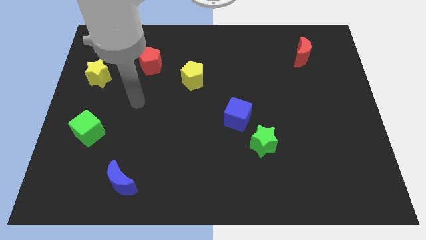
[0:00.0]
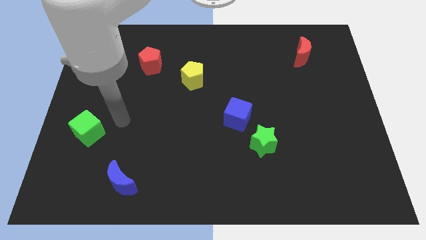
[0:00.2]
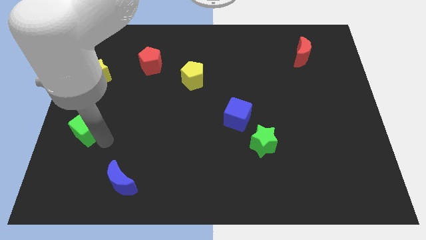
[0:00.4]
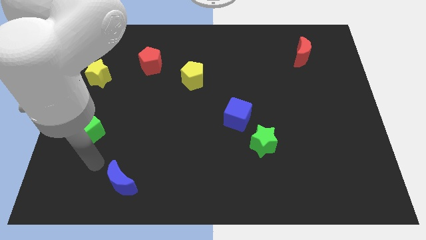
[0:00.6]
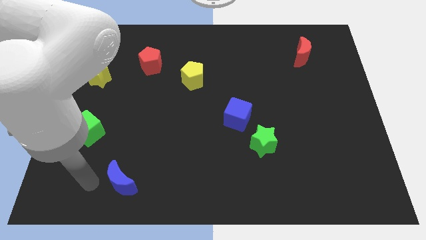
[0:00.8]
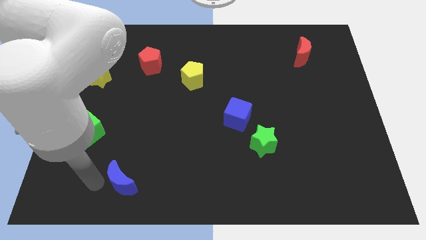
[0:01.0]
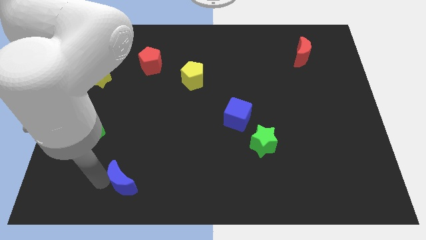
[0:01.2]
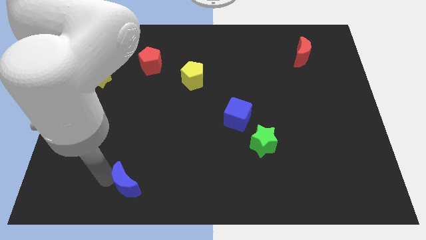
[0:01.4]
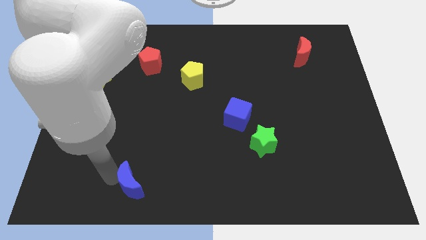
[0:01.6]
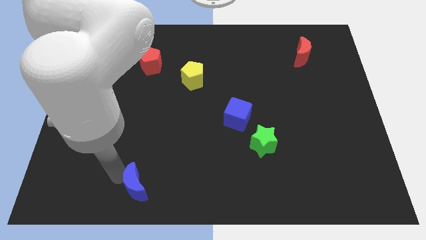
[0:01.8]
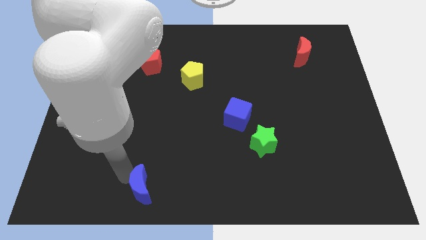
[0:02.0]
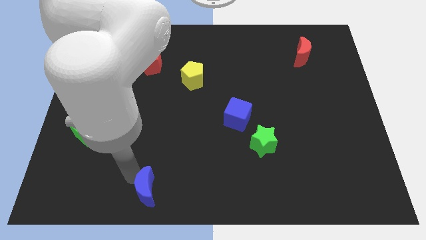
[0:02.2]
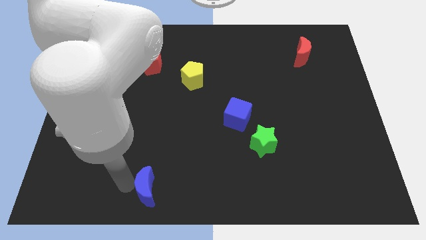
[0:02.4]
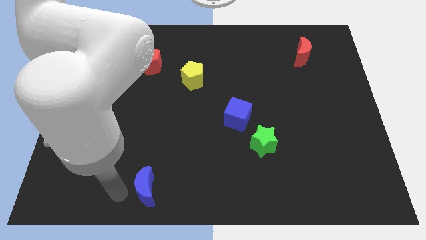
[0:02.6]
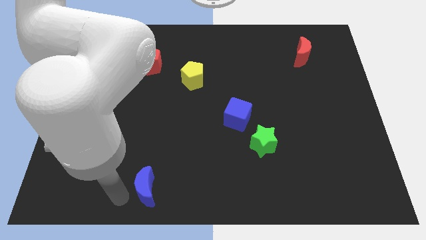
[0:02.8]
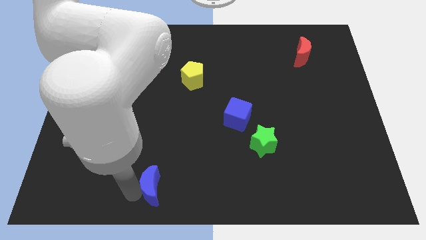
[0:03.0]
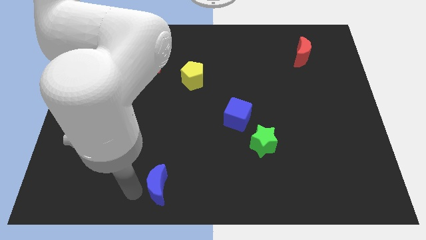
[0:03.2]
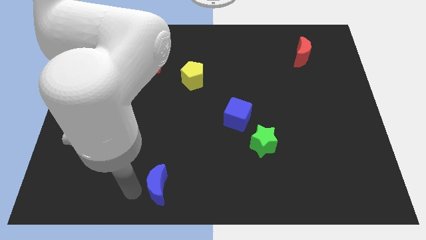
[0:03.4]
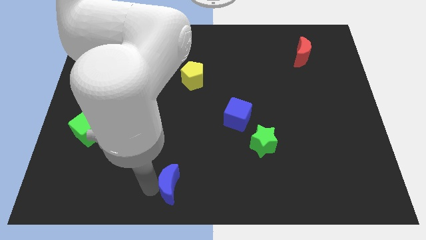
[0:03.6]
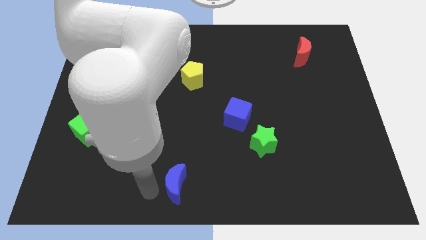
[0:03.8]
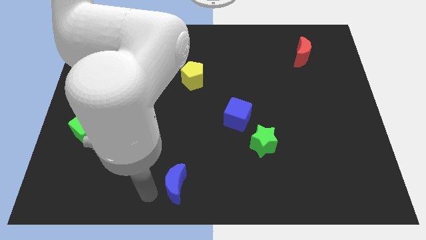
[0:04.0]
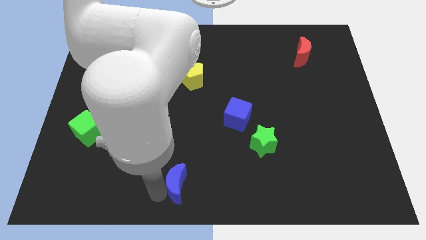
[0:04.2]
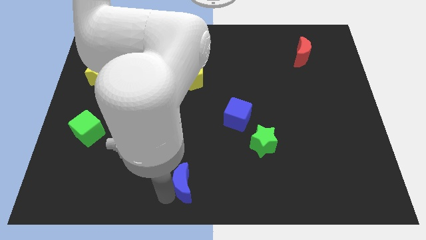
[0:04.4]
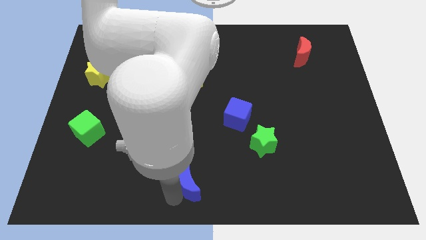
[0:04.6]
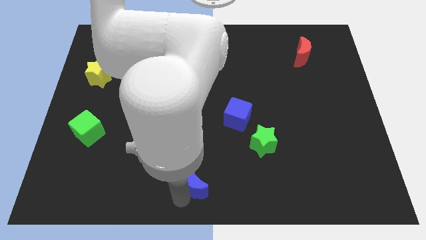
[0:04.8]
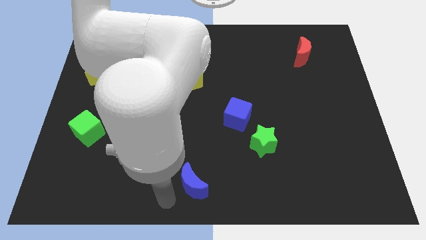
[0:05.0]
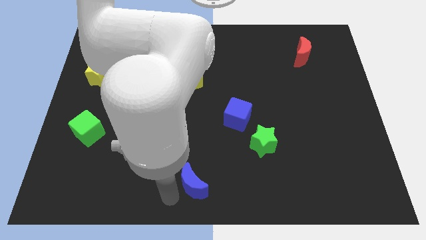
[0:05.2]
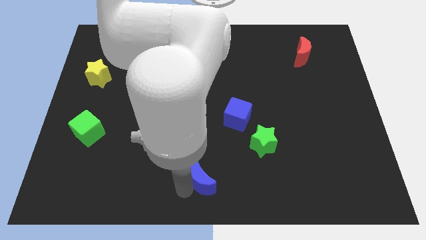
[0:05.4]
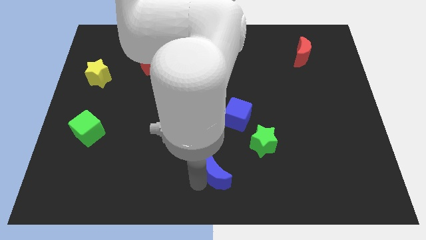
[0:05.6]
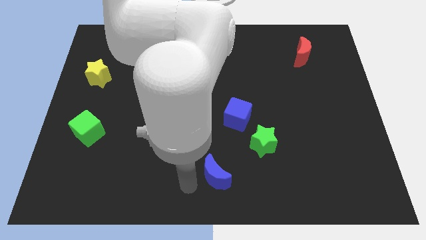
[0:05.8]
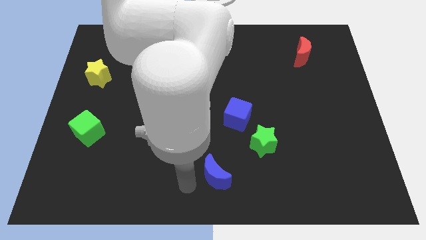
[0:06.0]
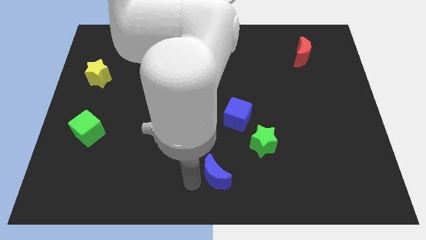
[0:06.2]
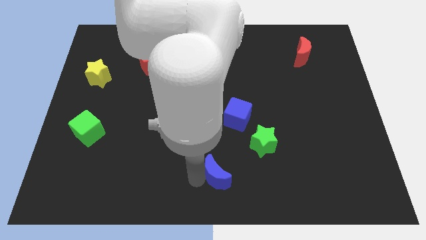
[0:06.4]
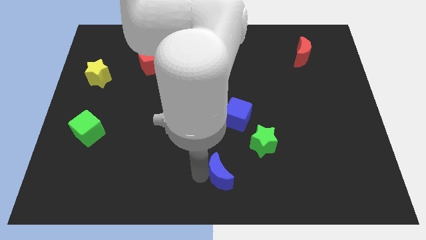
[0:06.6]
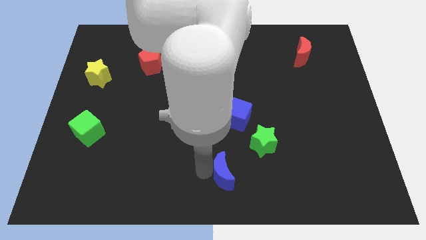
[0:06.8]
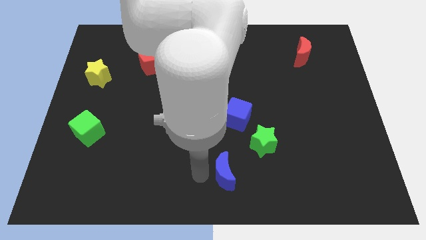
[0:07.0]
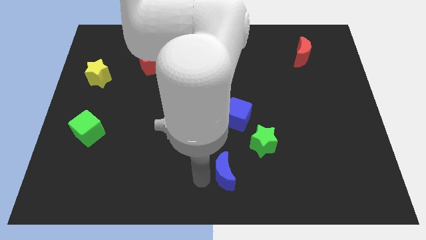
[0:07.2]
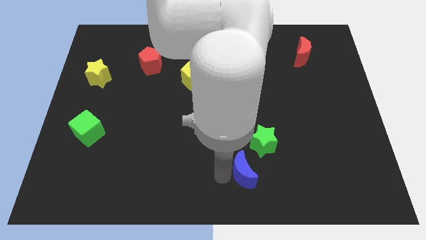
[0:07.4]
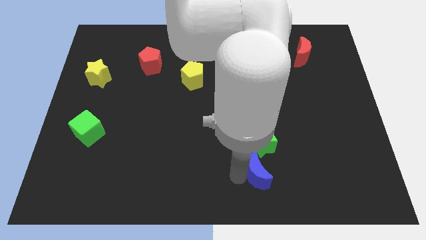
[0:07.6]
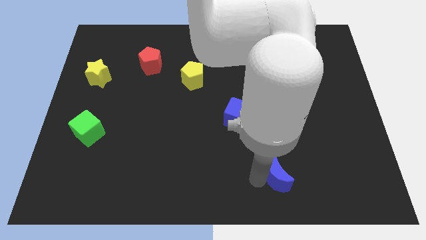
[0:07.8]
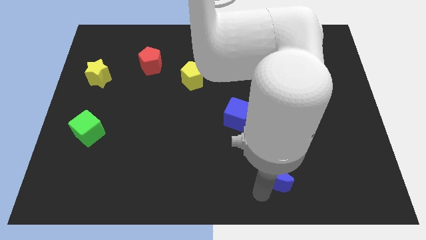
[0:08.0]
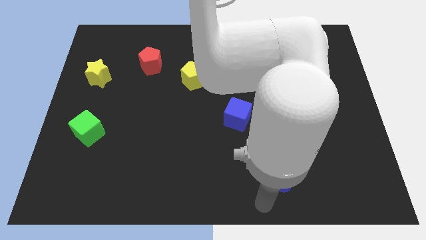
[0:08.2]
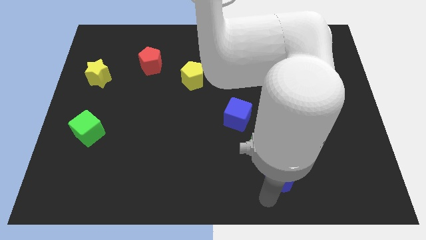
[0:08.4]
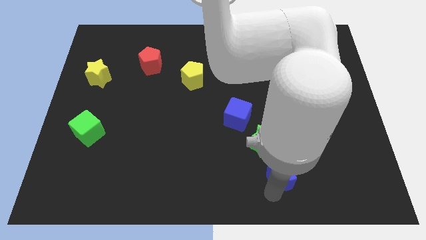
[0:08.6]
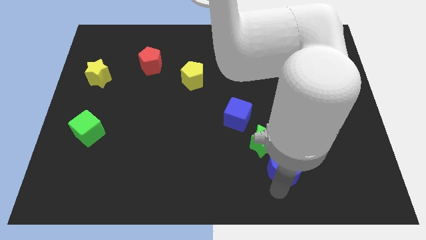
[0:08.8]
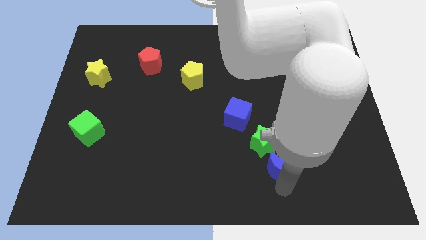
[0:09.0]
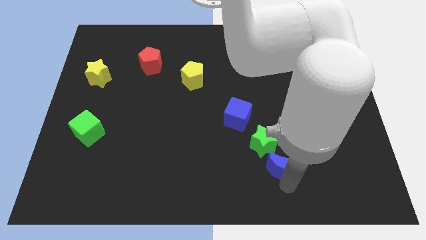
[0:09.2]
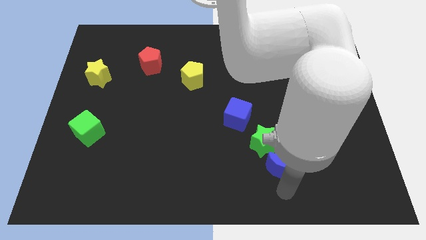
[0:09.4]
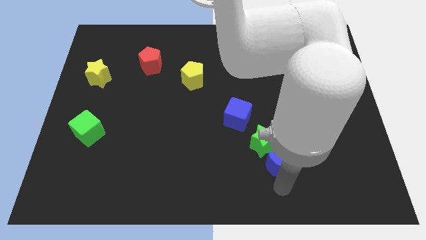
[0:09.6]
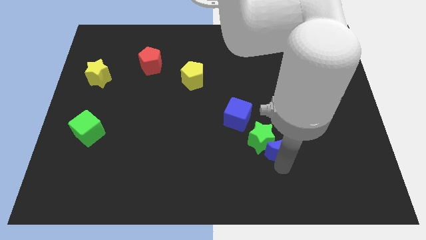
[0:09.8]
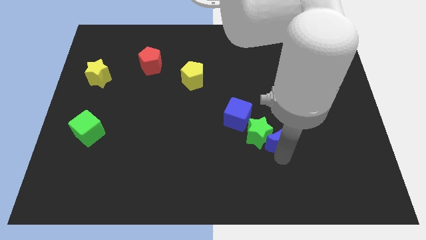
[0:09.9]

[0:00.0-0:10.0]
put the blue moon to the top right of the green star

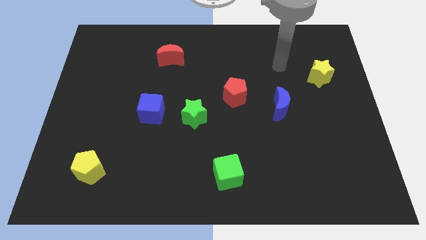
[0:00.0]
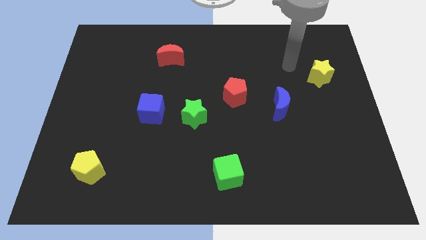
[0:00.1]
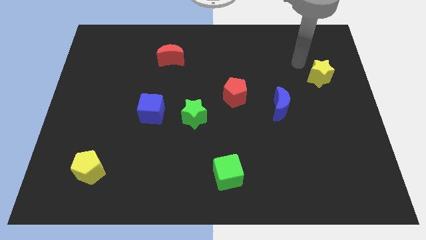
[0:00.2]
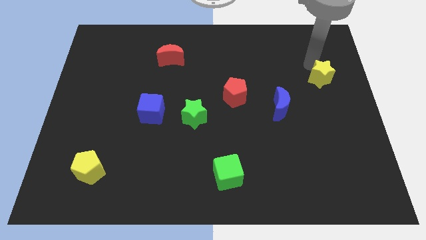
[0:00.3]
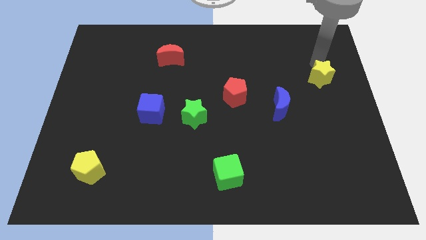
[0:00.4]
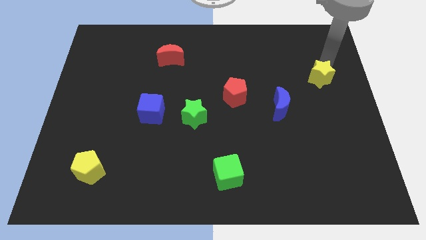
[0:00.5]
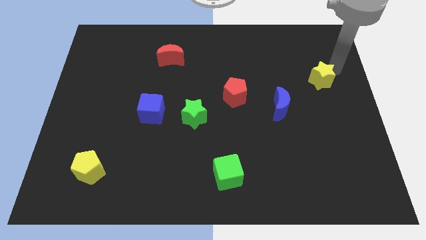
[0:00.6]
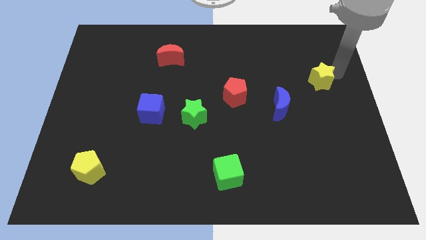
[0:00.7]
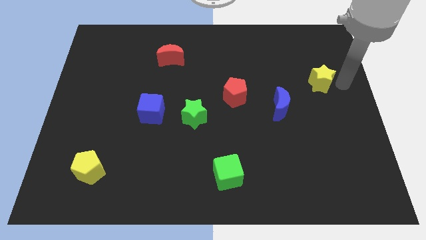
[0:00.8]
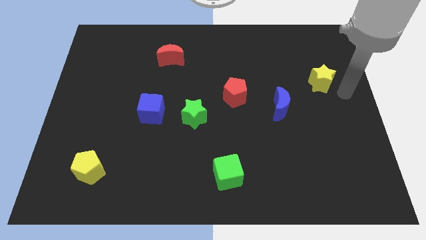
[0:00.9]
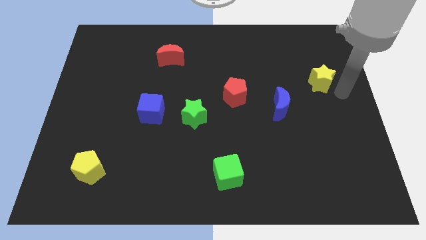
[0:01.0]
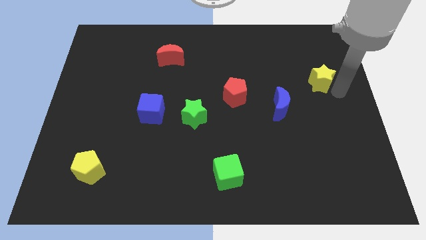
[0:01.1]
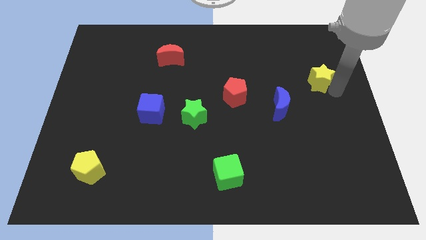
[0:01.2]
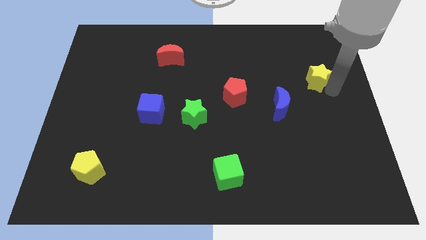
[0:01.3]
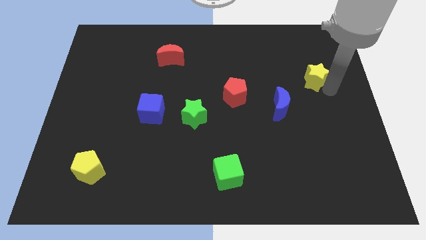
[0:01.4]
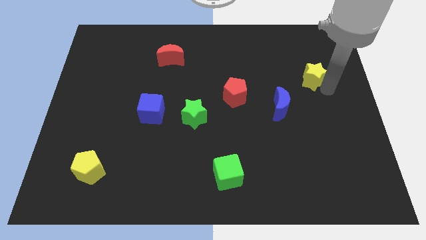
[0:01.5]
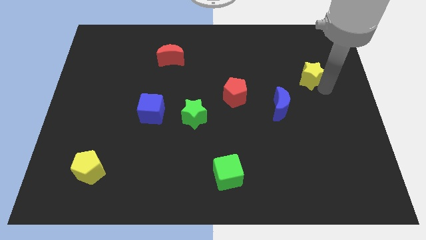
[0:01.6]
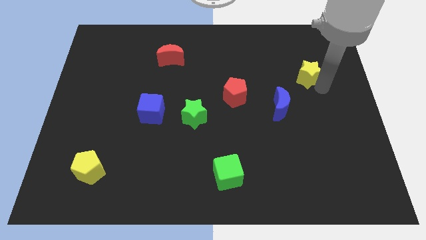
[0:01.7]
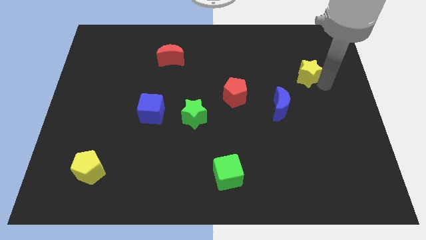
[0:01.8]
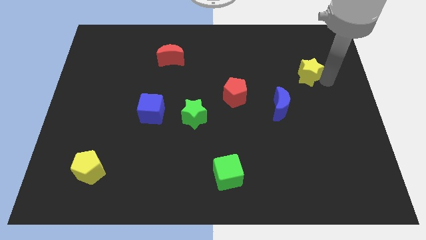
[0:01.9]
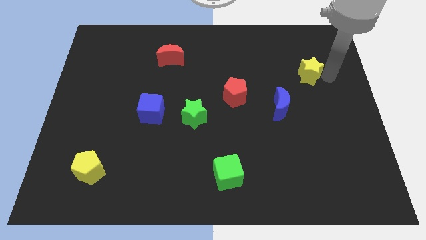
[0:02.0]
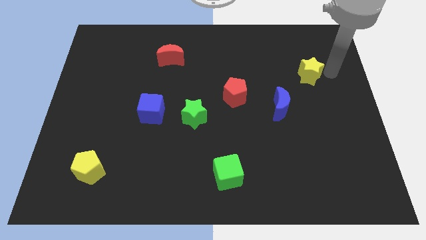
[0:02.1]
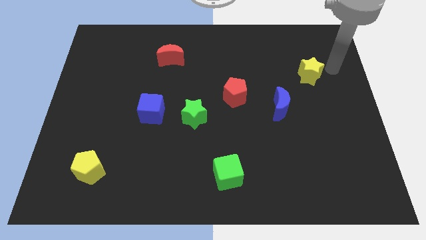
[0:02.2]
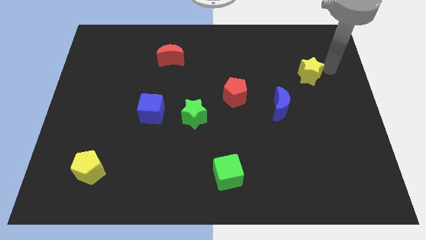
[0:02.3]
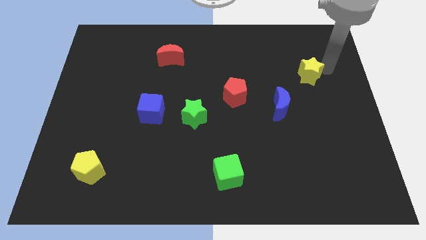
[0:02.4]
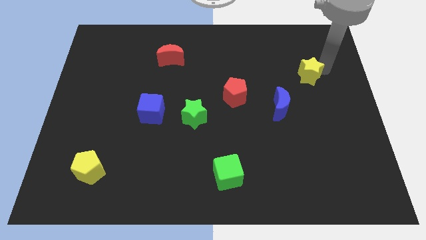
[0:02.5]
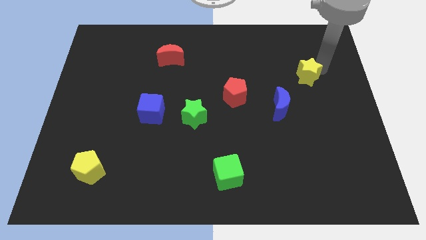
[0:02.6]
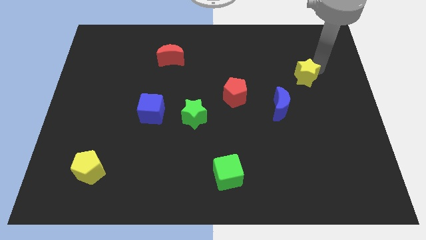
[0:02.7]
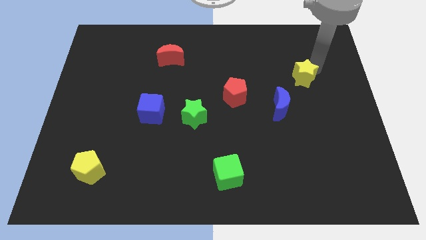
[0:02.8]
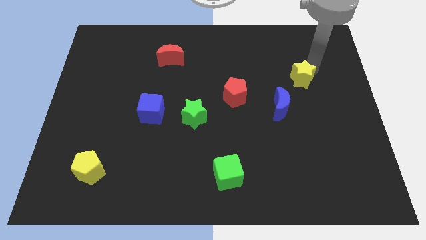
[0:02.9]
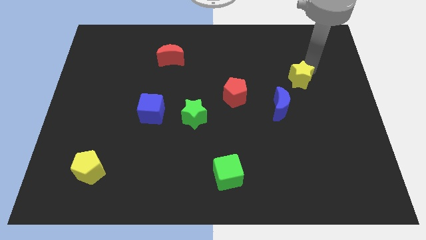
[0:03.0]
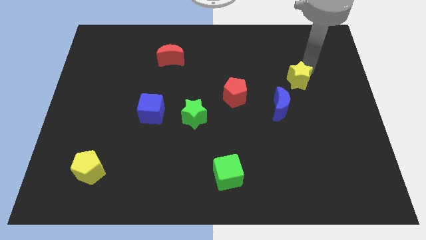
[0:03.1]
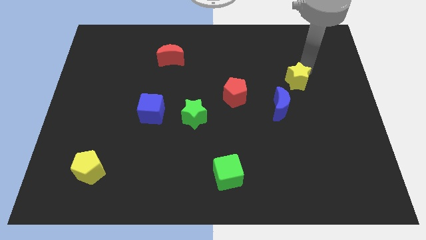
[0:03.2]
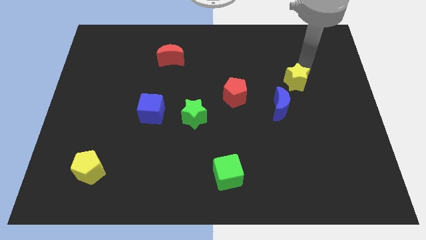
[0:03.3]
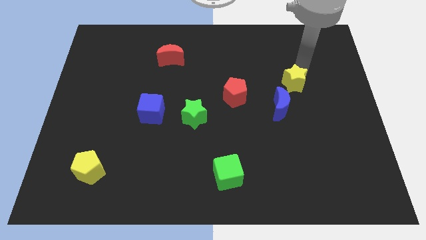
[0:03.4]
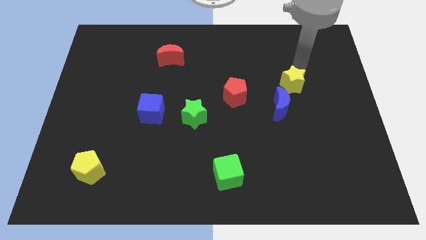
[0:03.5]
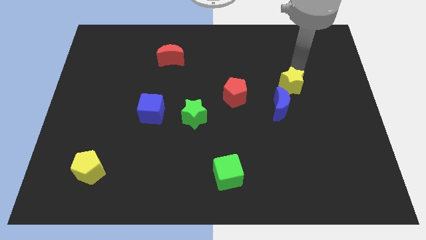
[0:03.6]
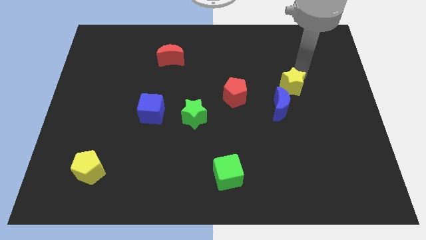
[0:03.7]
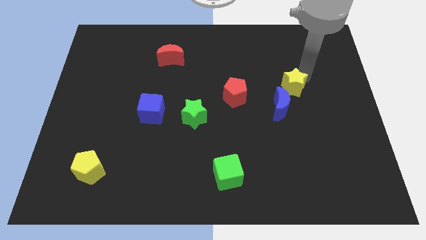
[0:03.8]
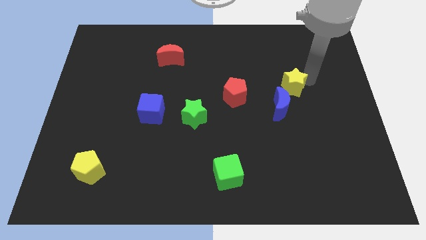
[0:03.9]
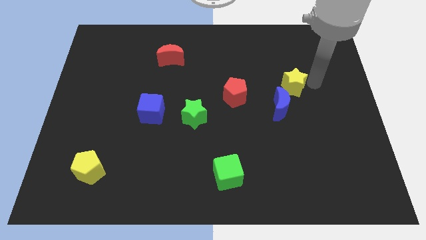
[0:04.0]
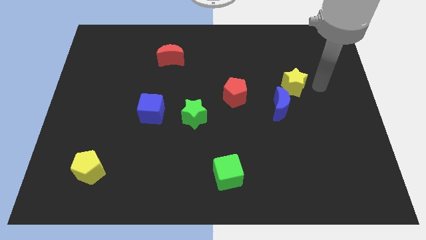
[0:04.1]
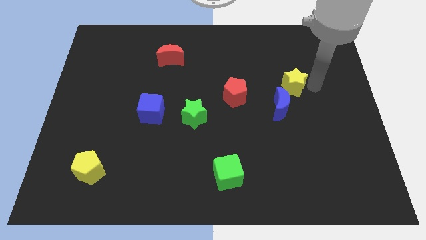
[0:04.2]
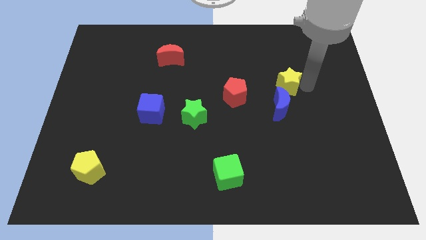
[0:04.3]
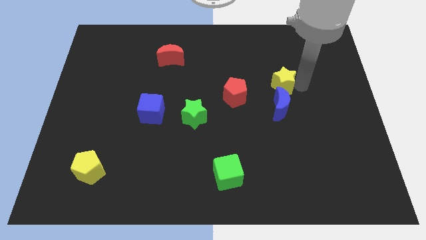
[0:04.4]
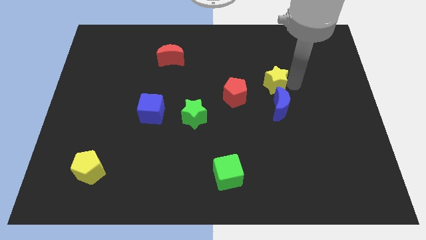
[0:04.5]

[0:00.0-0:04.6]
push the yellow star to the top left side of the blue moon
